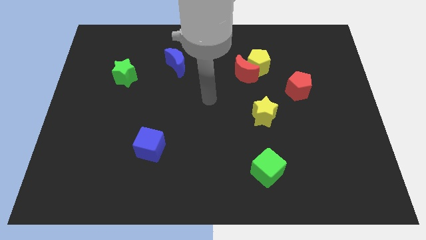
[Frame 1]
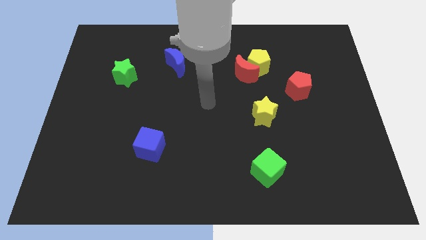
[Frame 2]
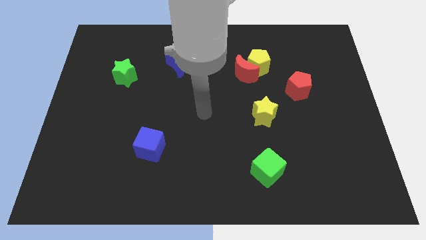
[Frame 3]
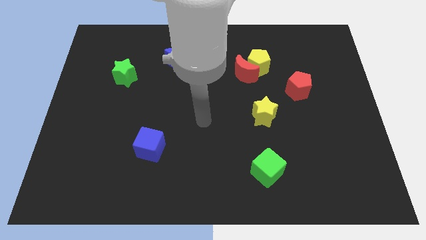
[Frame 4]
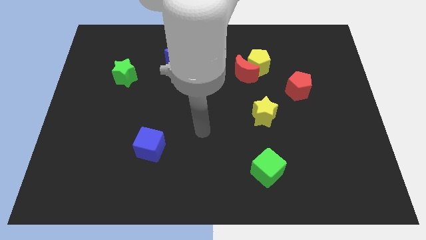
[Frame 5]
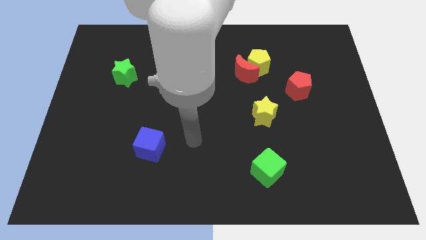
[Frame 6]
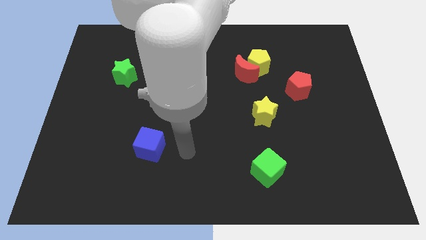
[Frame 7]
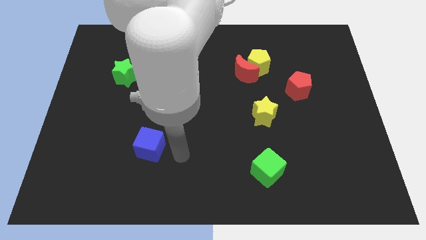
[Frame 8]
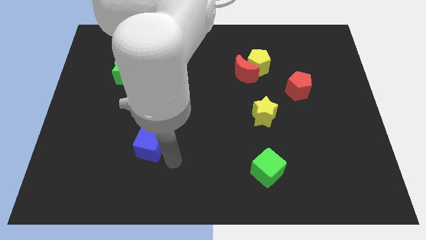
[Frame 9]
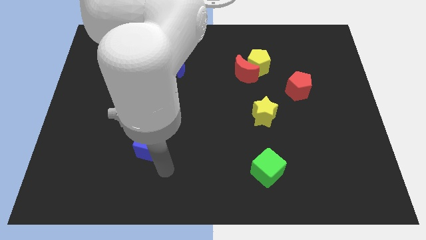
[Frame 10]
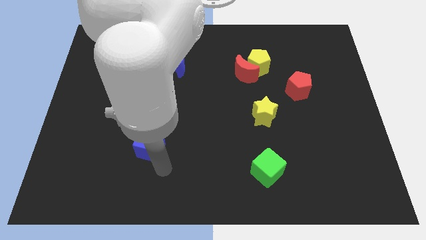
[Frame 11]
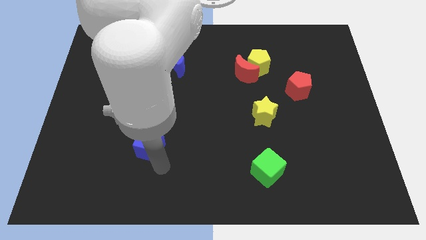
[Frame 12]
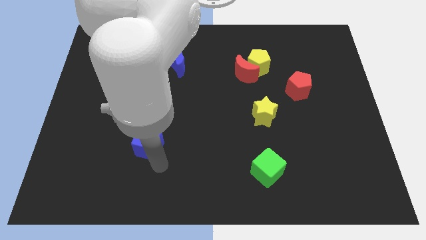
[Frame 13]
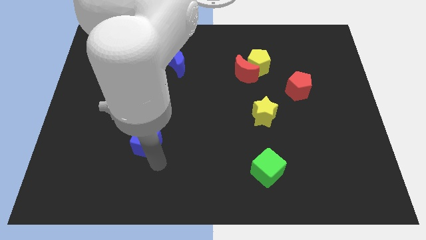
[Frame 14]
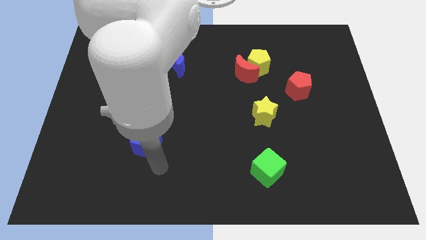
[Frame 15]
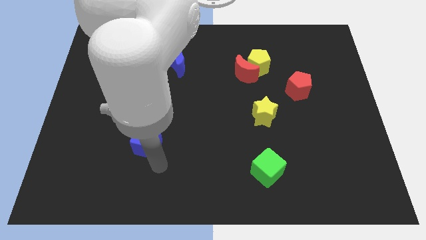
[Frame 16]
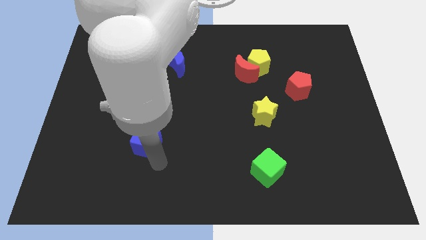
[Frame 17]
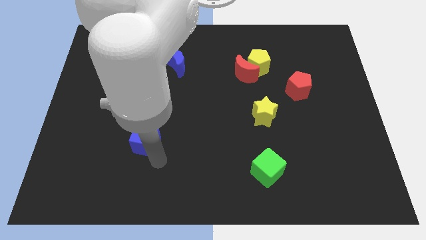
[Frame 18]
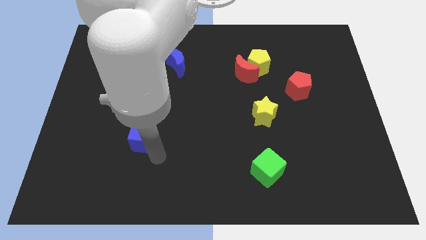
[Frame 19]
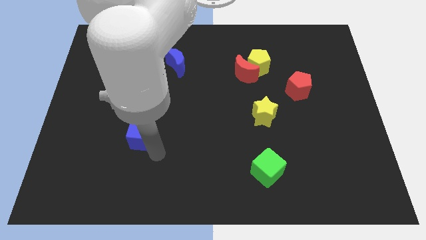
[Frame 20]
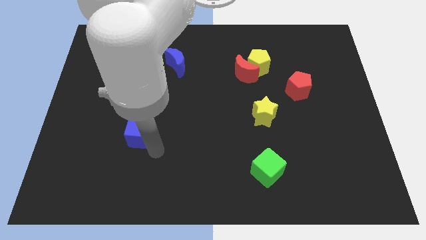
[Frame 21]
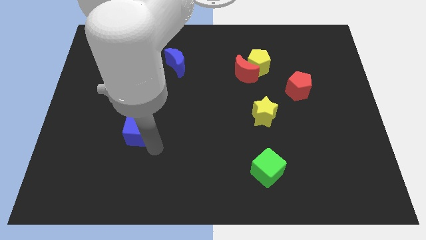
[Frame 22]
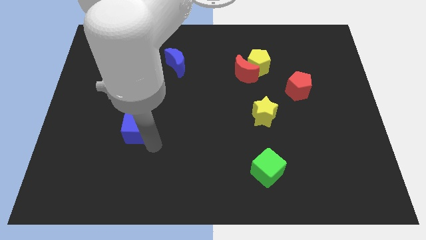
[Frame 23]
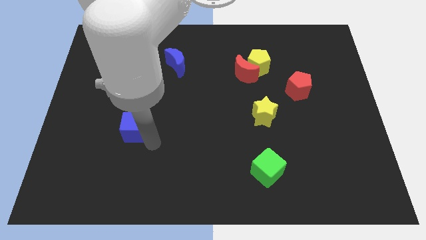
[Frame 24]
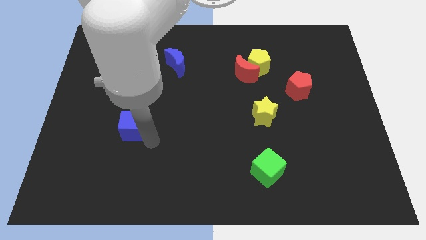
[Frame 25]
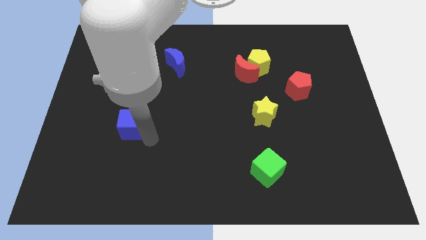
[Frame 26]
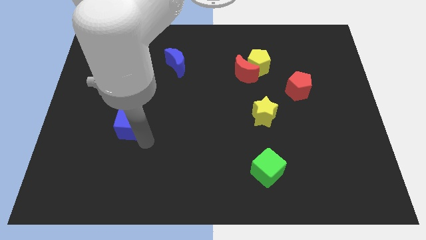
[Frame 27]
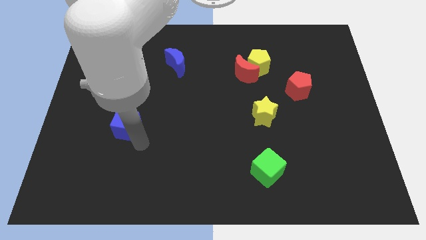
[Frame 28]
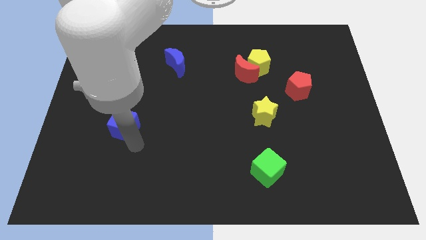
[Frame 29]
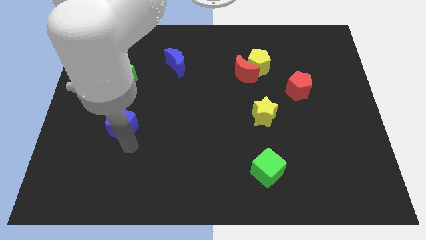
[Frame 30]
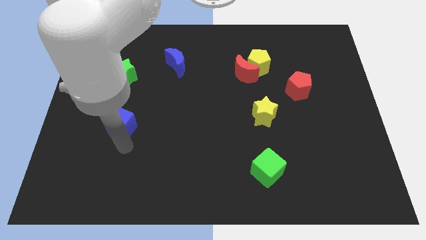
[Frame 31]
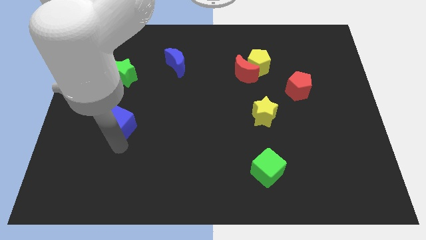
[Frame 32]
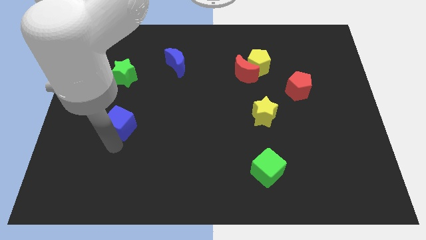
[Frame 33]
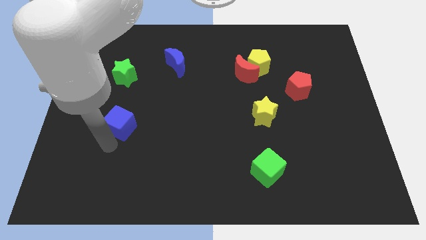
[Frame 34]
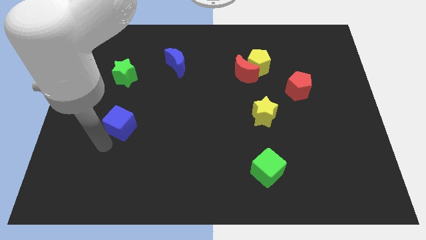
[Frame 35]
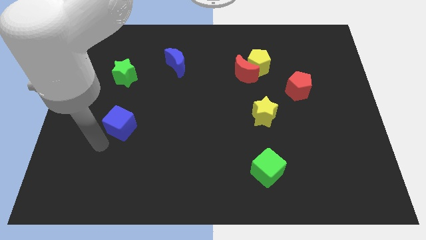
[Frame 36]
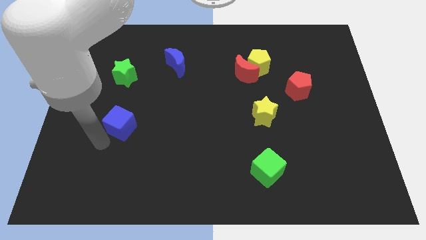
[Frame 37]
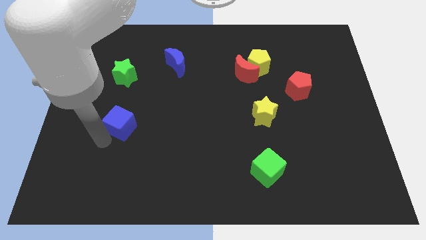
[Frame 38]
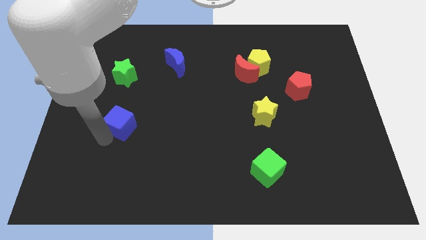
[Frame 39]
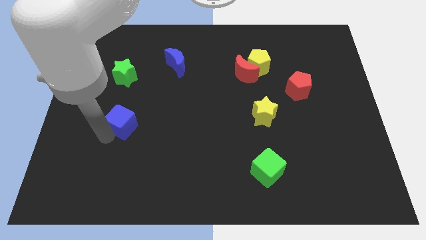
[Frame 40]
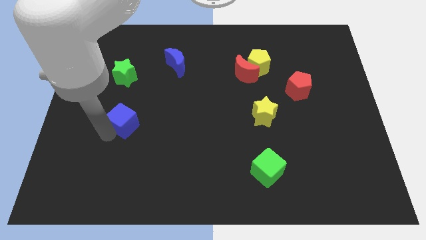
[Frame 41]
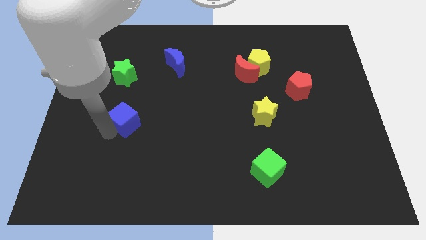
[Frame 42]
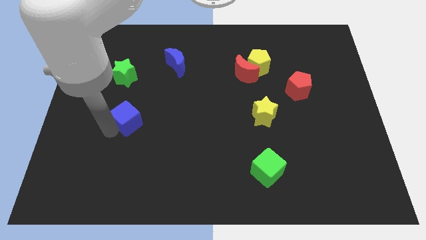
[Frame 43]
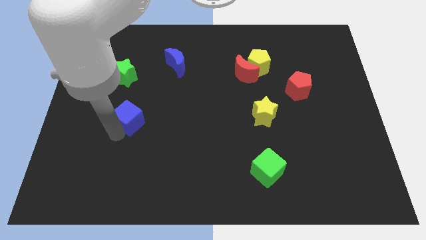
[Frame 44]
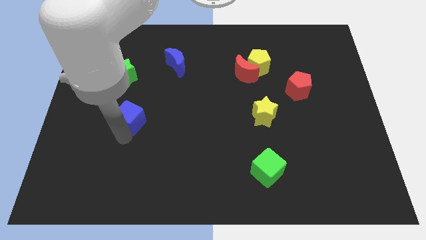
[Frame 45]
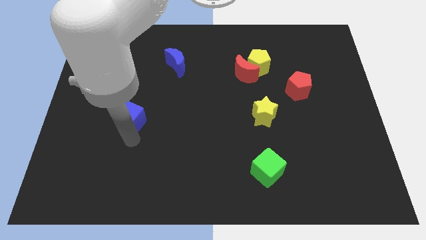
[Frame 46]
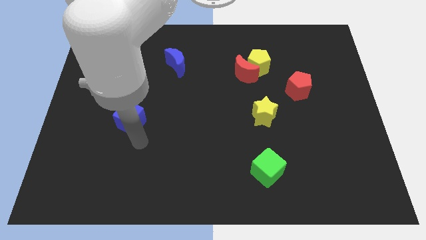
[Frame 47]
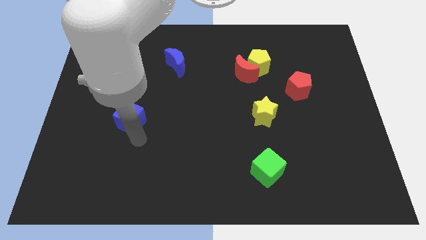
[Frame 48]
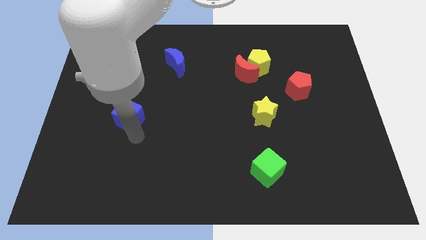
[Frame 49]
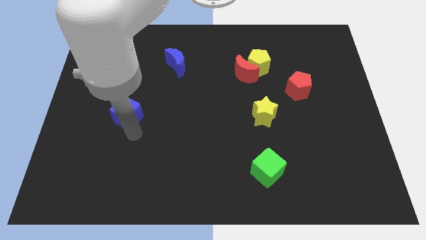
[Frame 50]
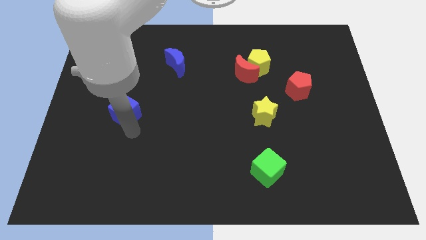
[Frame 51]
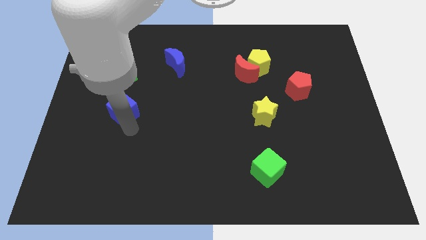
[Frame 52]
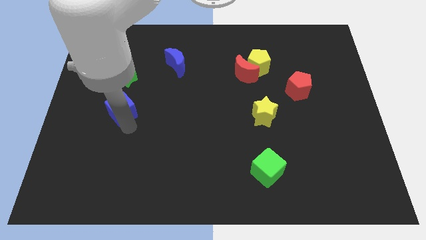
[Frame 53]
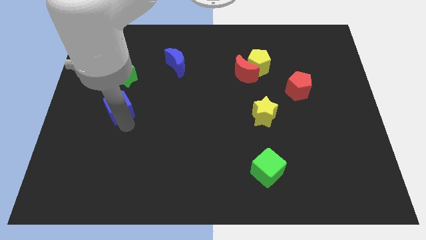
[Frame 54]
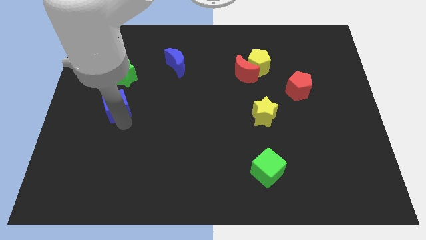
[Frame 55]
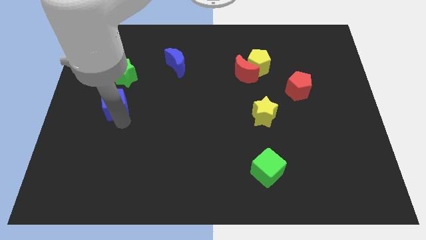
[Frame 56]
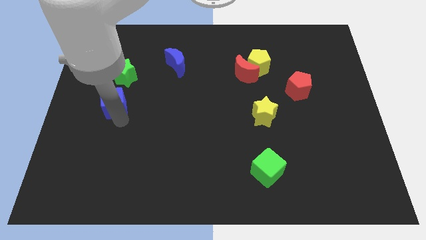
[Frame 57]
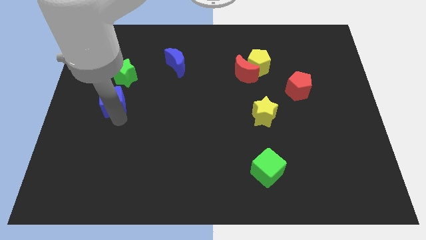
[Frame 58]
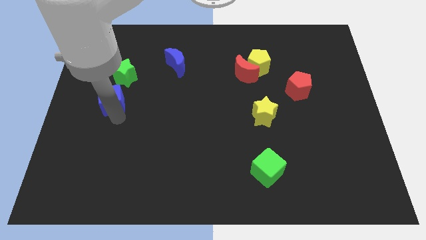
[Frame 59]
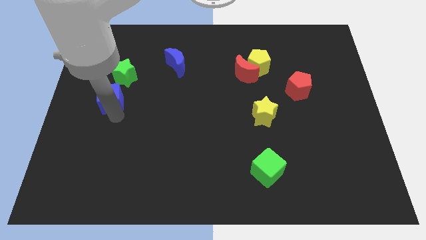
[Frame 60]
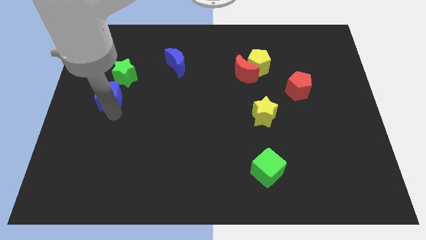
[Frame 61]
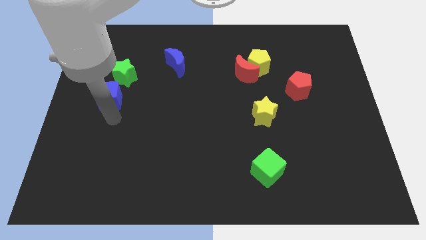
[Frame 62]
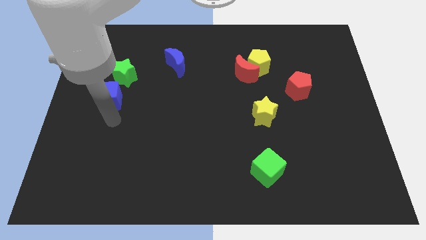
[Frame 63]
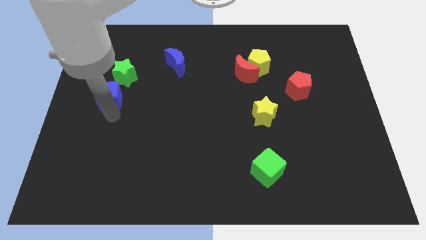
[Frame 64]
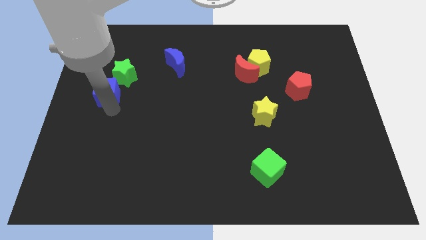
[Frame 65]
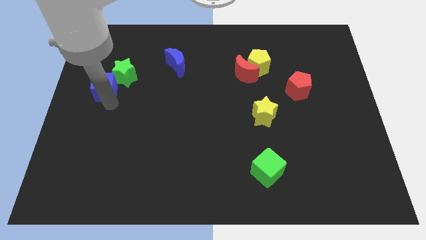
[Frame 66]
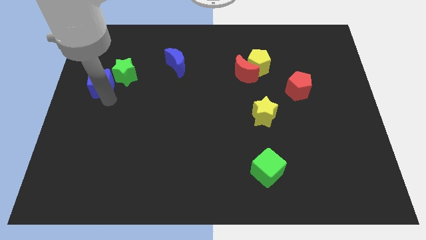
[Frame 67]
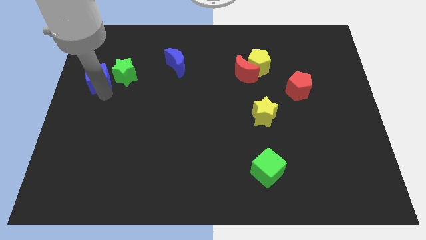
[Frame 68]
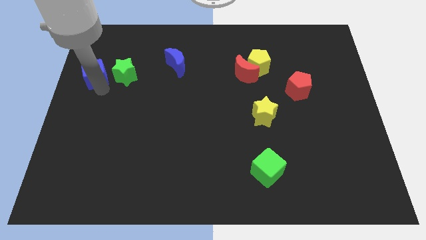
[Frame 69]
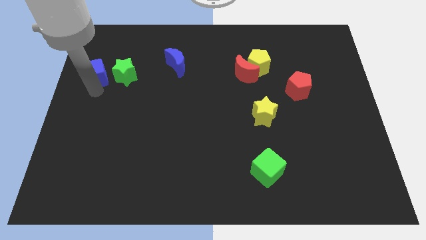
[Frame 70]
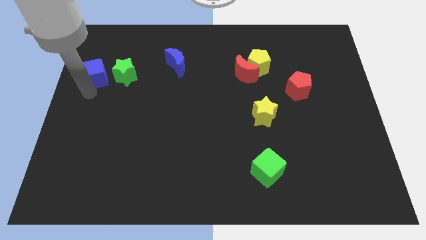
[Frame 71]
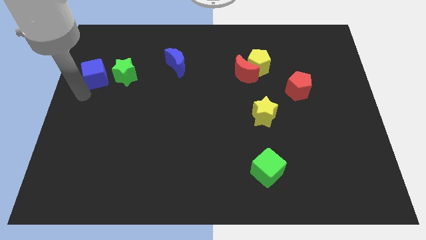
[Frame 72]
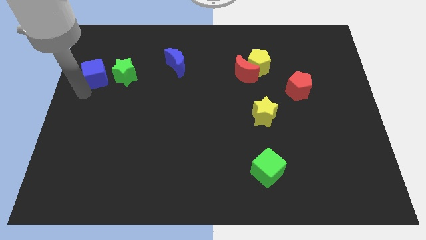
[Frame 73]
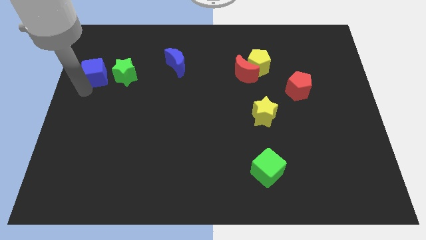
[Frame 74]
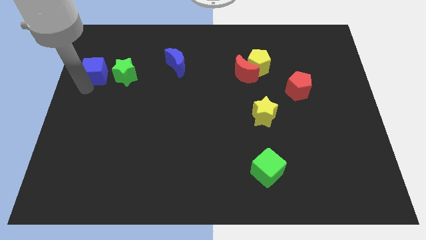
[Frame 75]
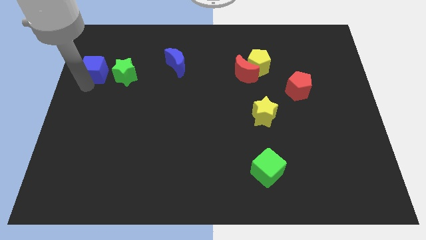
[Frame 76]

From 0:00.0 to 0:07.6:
push the blue cube to the top left side of the green star

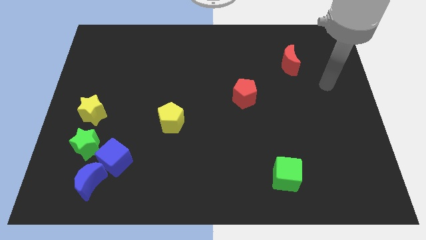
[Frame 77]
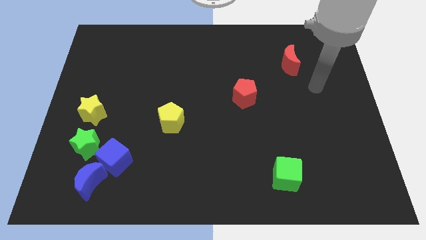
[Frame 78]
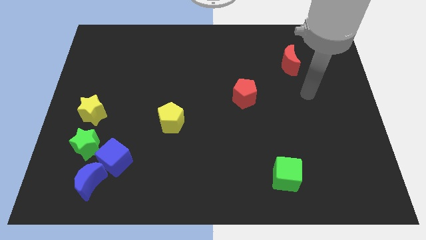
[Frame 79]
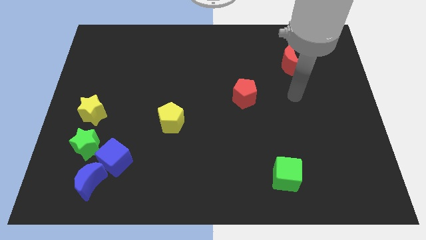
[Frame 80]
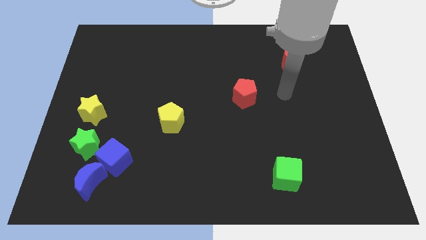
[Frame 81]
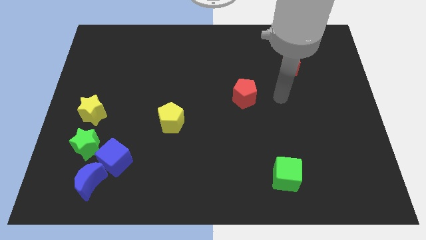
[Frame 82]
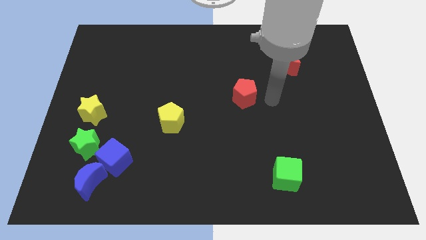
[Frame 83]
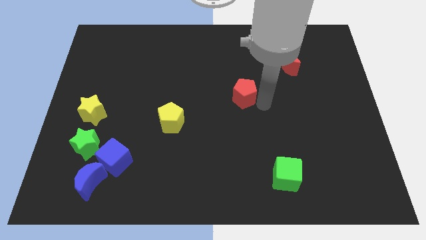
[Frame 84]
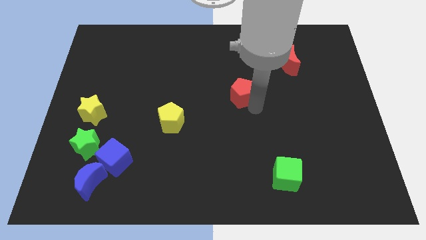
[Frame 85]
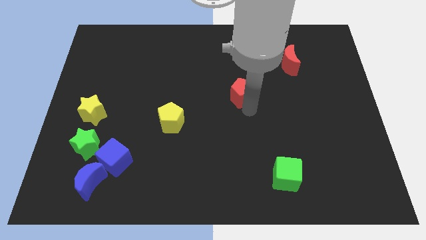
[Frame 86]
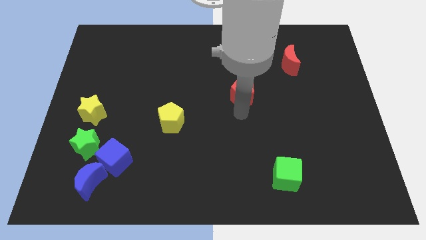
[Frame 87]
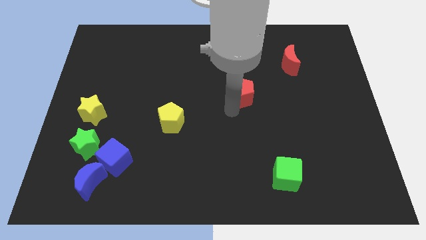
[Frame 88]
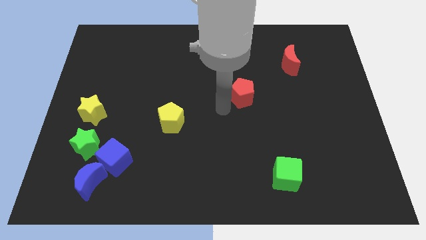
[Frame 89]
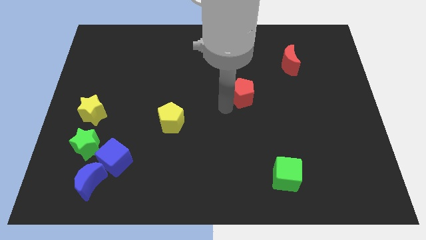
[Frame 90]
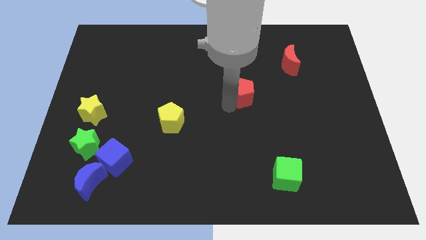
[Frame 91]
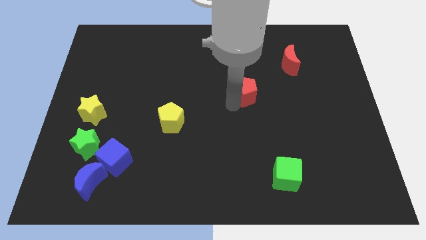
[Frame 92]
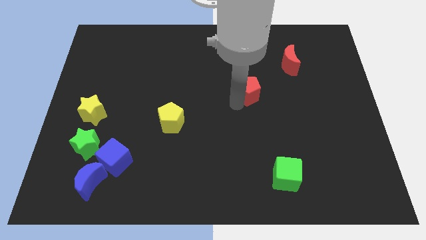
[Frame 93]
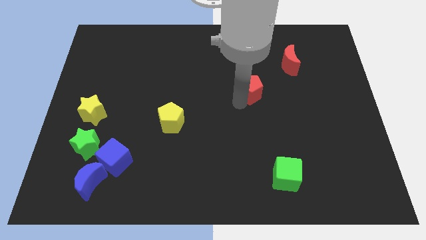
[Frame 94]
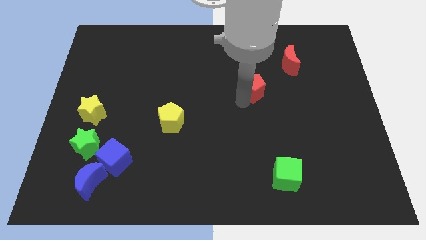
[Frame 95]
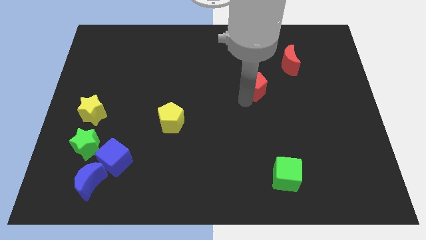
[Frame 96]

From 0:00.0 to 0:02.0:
put the red pentagon to the bottom left side of the red moon
